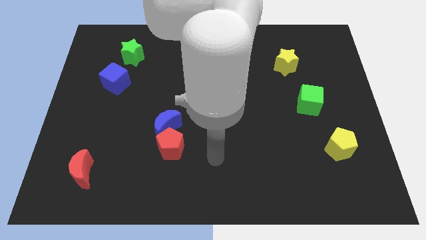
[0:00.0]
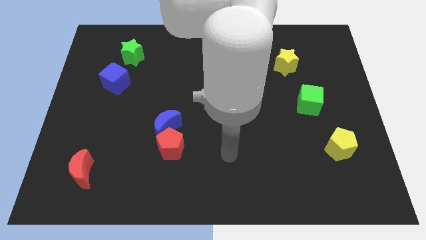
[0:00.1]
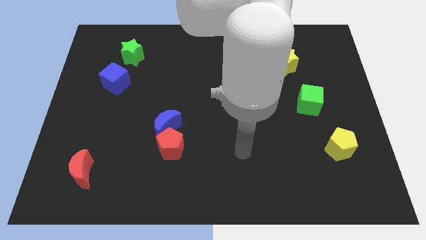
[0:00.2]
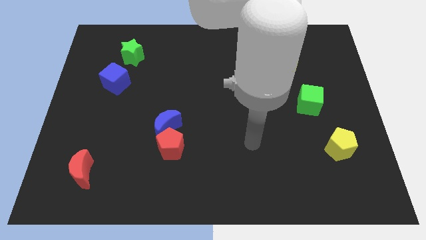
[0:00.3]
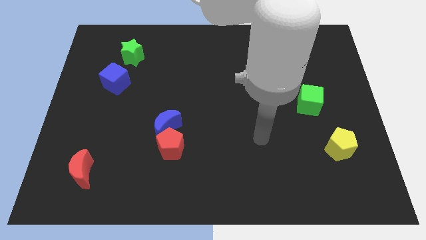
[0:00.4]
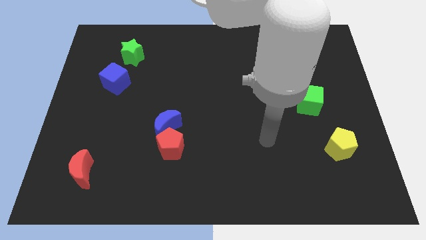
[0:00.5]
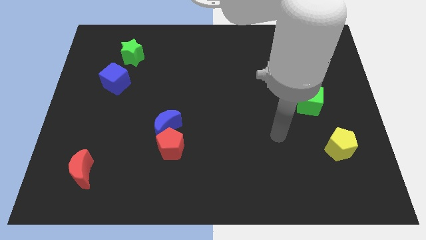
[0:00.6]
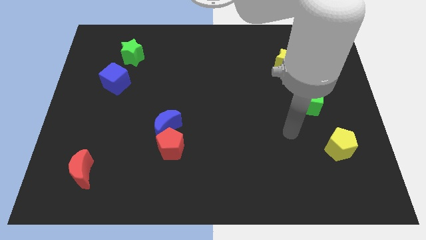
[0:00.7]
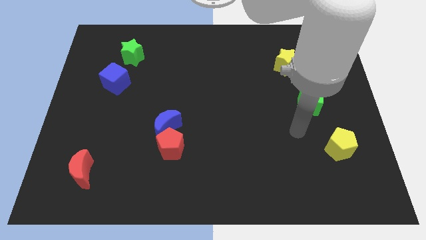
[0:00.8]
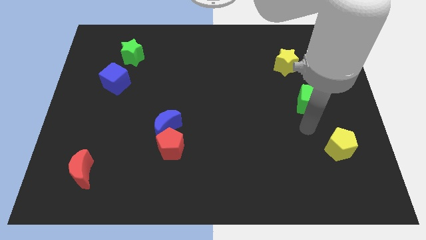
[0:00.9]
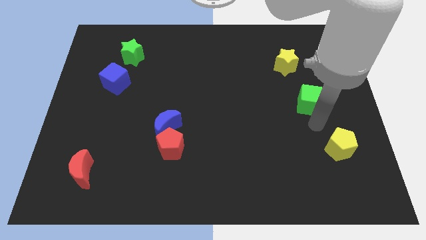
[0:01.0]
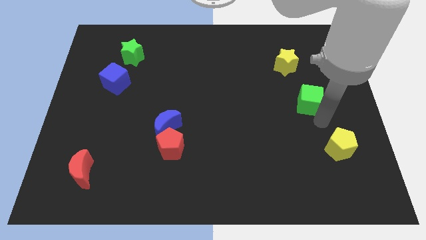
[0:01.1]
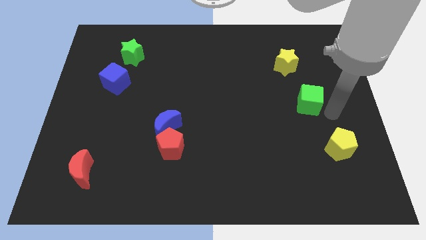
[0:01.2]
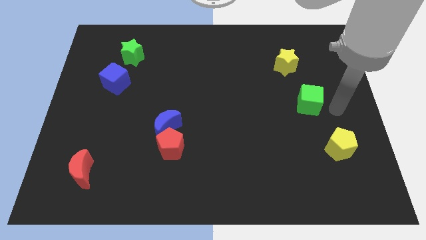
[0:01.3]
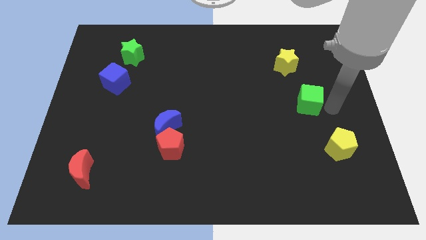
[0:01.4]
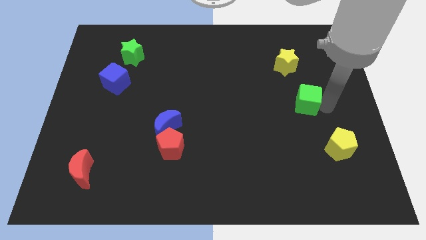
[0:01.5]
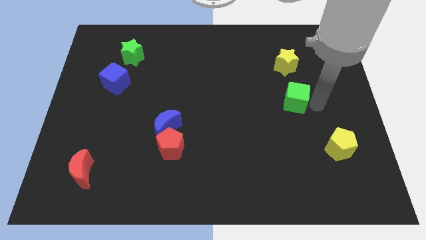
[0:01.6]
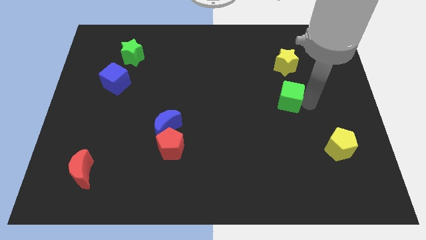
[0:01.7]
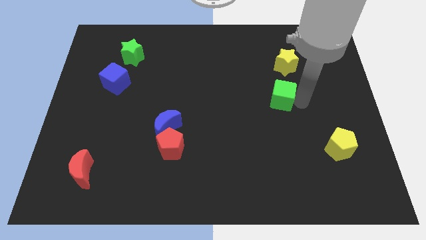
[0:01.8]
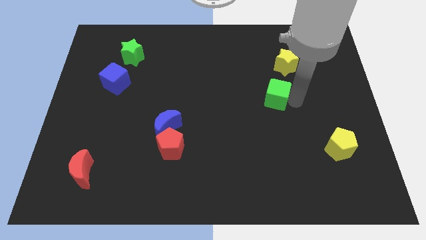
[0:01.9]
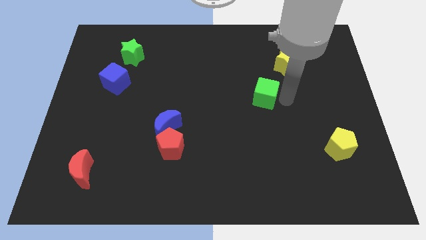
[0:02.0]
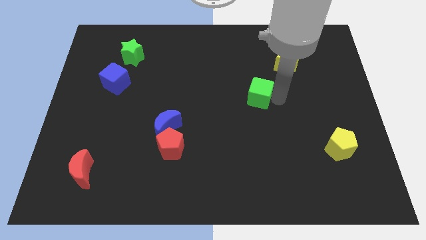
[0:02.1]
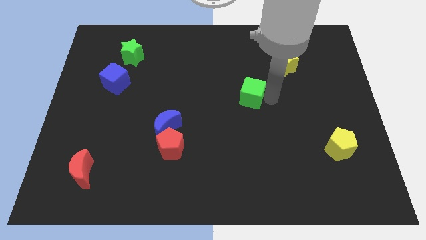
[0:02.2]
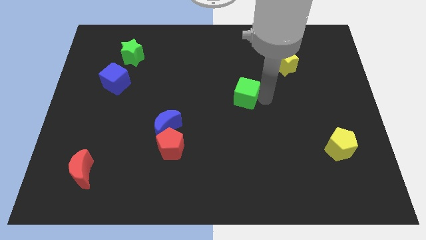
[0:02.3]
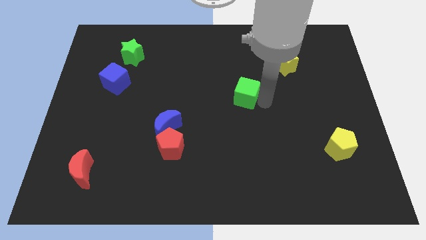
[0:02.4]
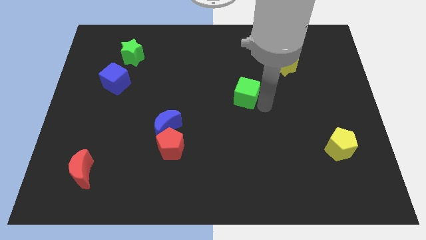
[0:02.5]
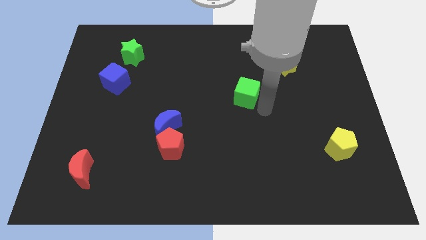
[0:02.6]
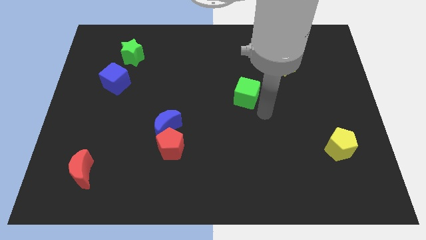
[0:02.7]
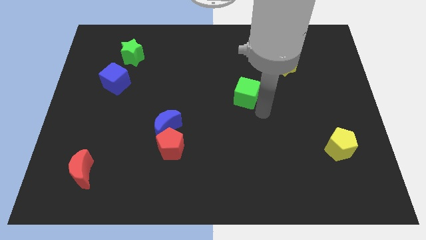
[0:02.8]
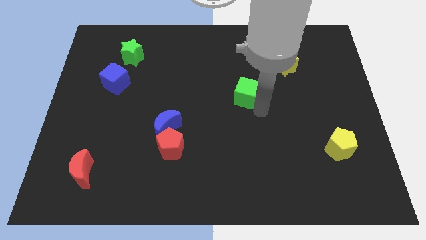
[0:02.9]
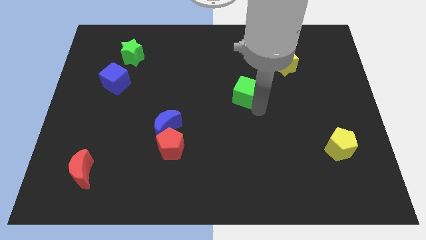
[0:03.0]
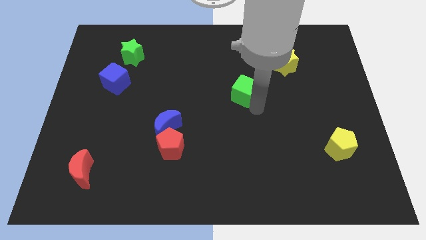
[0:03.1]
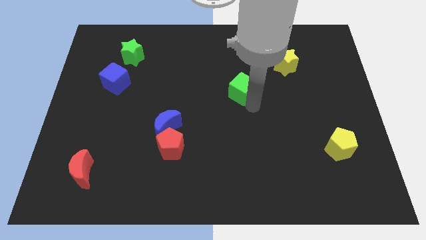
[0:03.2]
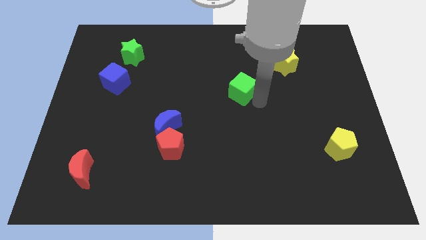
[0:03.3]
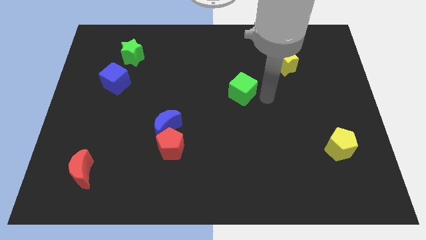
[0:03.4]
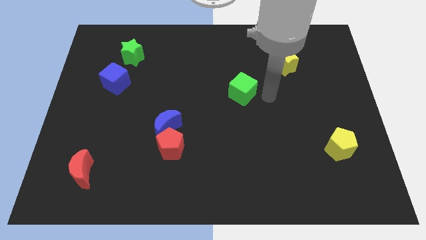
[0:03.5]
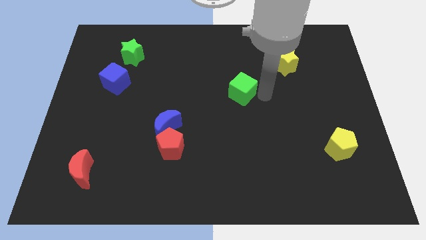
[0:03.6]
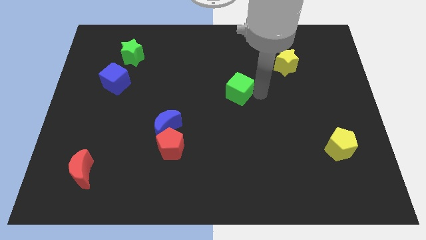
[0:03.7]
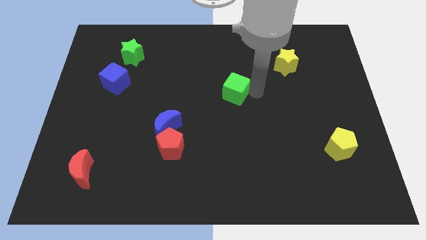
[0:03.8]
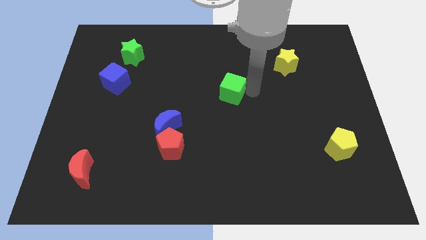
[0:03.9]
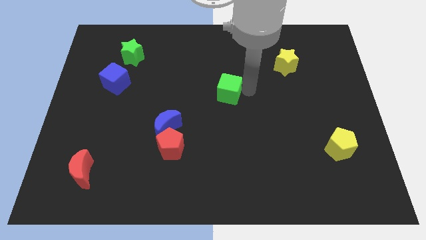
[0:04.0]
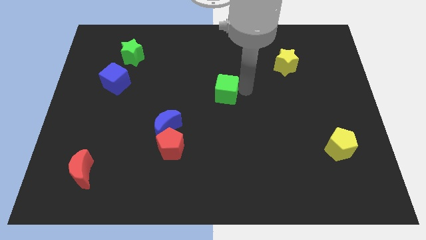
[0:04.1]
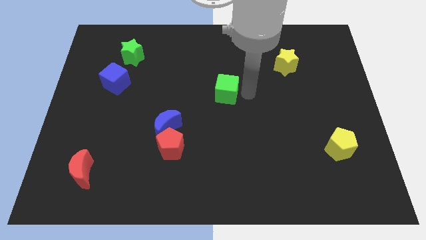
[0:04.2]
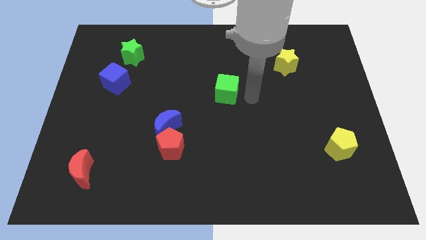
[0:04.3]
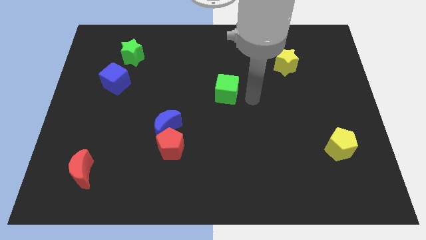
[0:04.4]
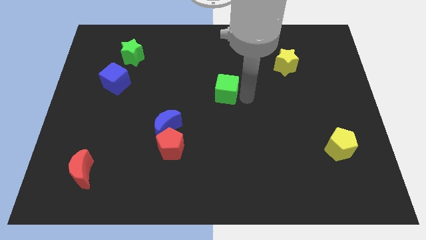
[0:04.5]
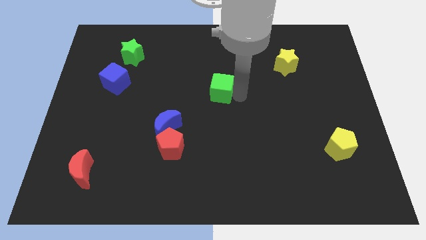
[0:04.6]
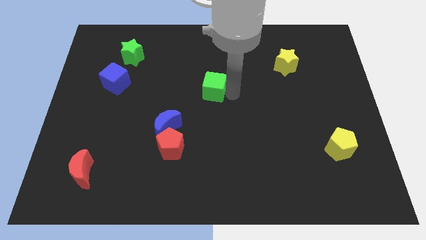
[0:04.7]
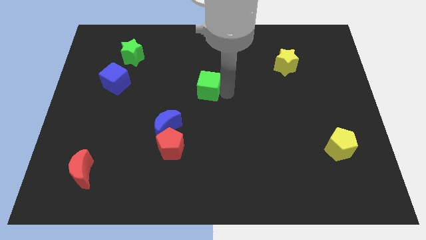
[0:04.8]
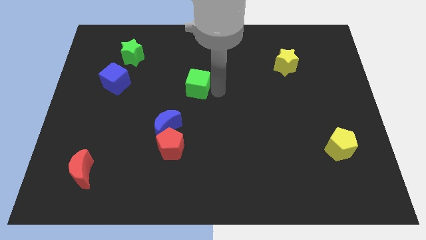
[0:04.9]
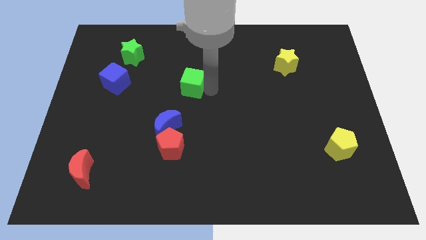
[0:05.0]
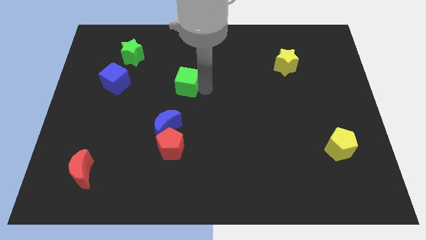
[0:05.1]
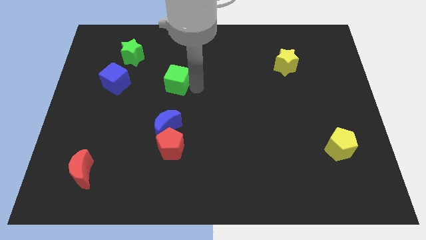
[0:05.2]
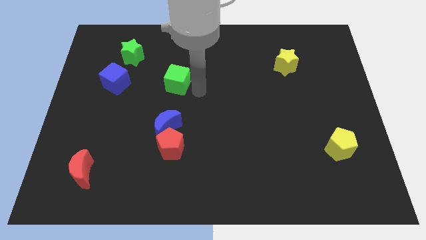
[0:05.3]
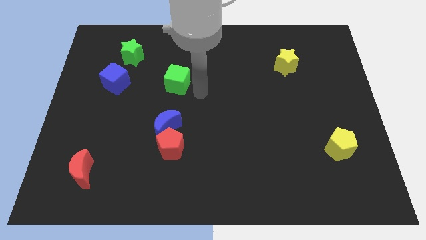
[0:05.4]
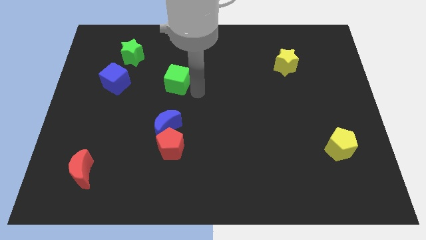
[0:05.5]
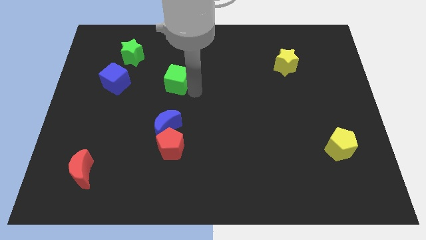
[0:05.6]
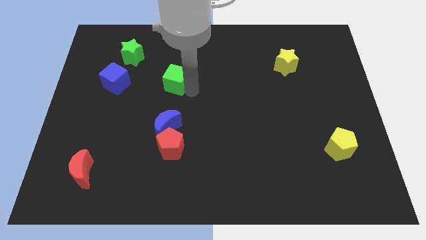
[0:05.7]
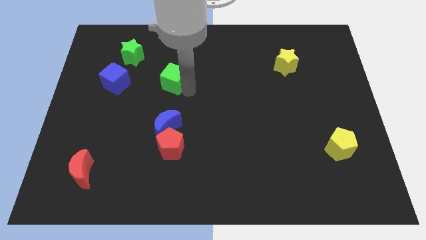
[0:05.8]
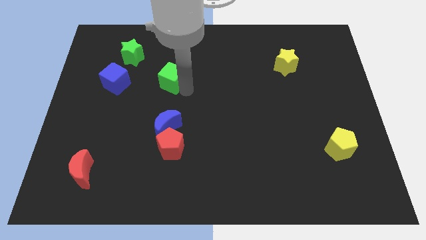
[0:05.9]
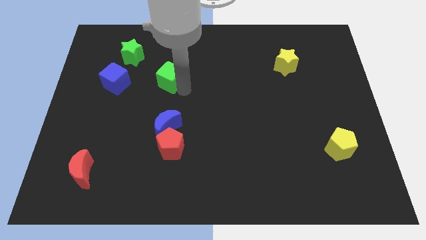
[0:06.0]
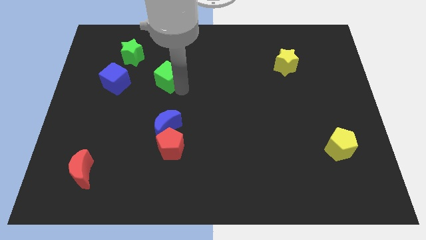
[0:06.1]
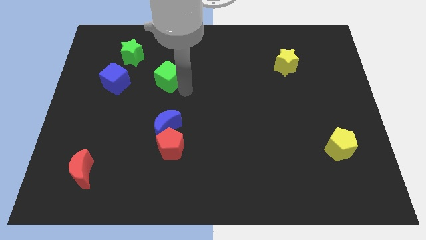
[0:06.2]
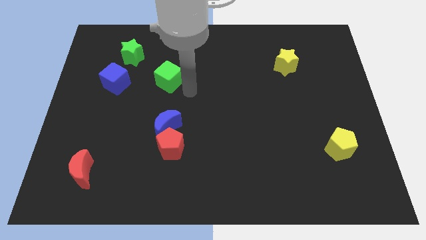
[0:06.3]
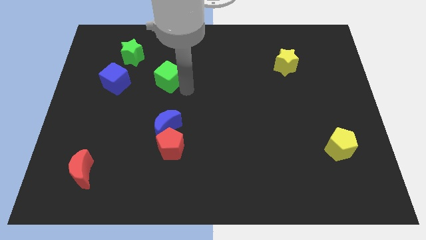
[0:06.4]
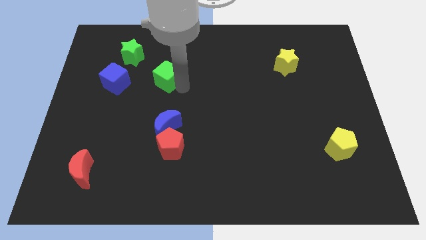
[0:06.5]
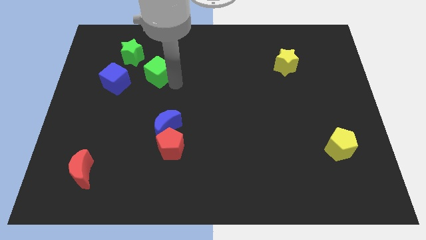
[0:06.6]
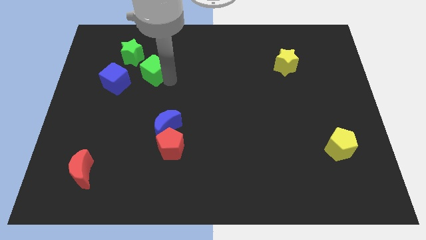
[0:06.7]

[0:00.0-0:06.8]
slide the green cube diagonally up and to the right of the blue cube
